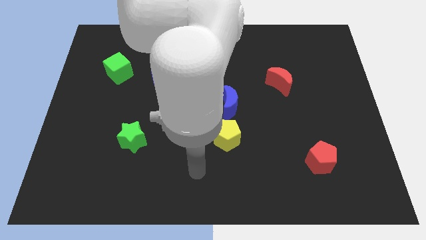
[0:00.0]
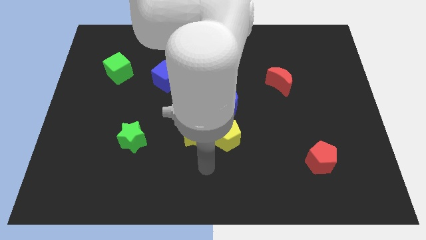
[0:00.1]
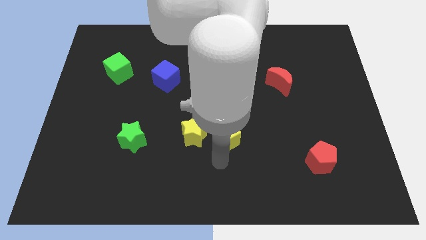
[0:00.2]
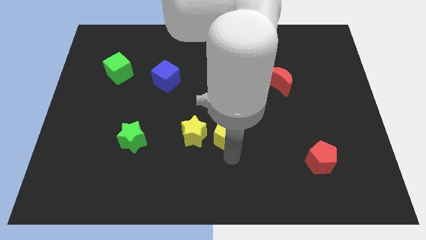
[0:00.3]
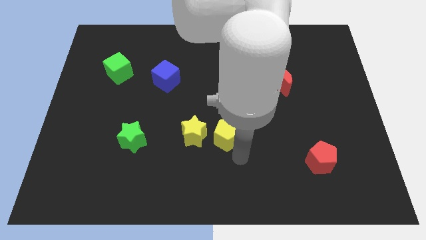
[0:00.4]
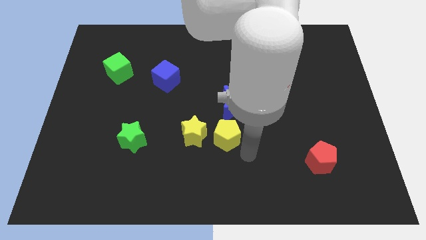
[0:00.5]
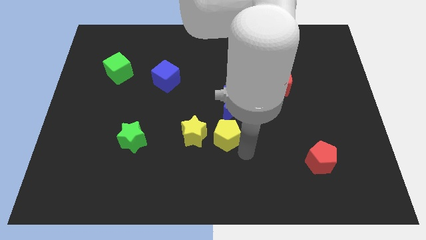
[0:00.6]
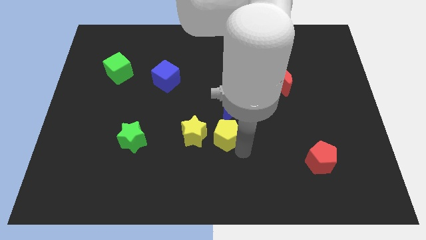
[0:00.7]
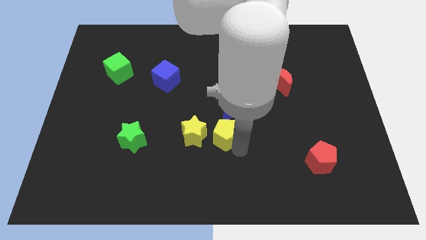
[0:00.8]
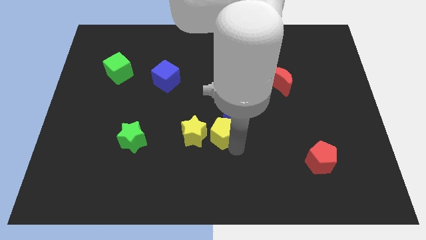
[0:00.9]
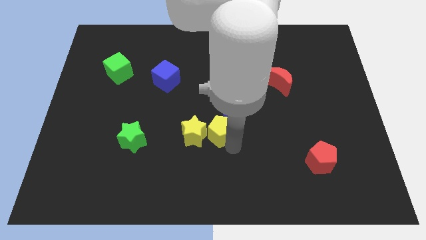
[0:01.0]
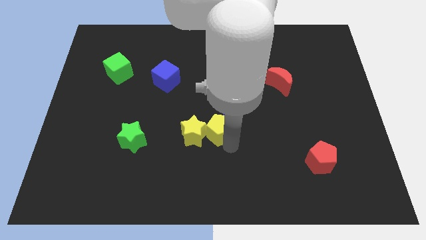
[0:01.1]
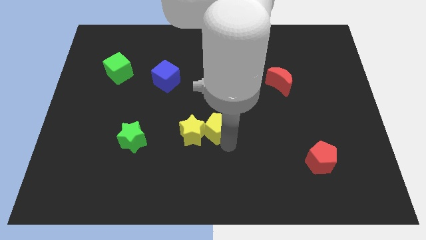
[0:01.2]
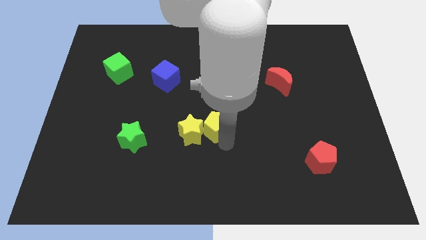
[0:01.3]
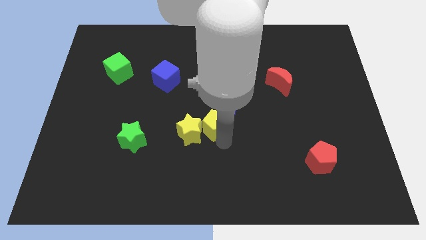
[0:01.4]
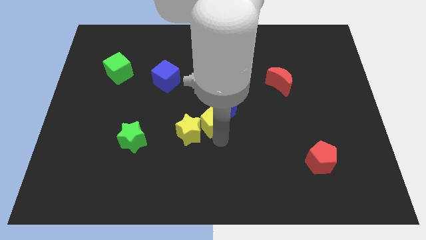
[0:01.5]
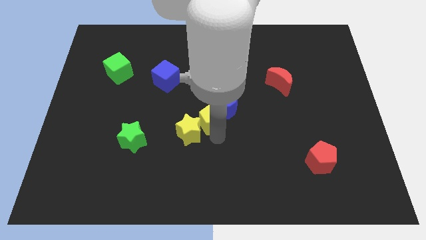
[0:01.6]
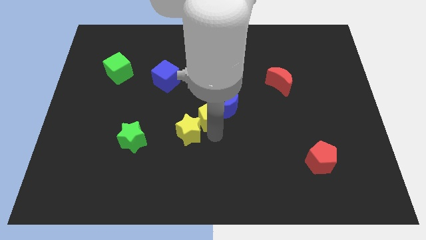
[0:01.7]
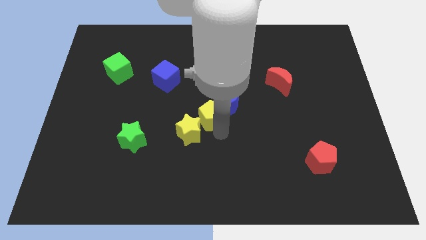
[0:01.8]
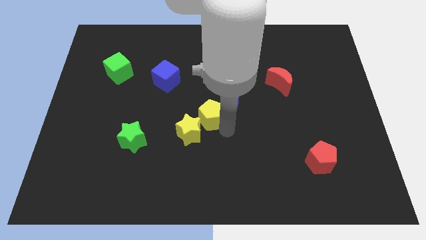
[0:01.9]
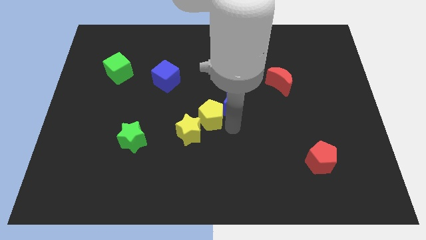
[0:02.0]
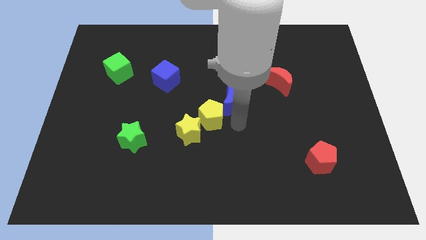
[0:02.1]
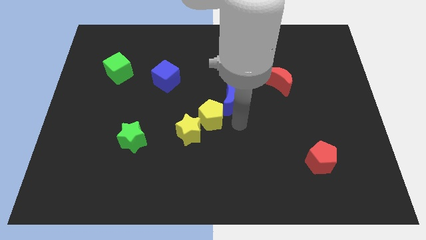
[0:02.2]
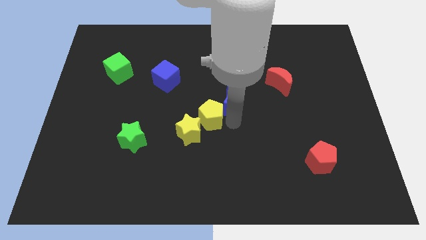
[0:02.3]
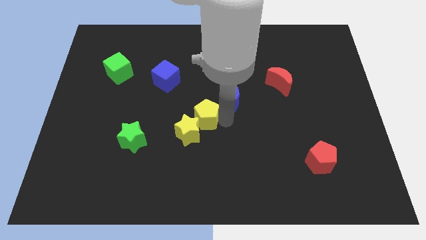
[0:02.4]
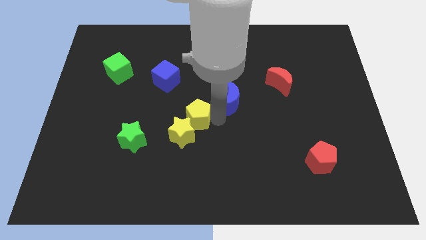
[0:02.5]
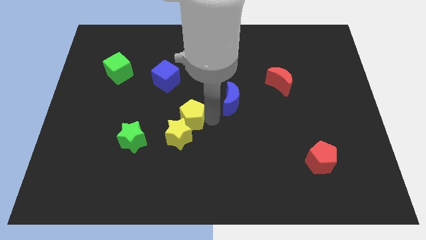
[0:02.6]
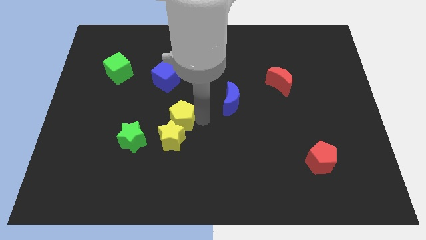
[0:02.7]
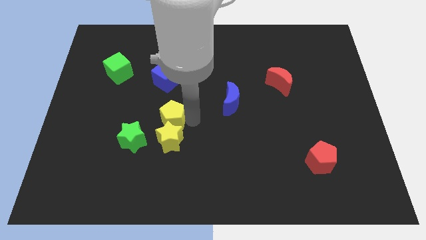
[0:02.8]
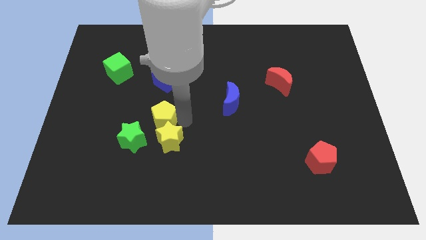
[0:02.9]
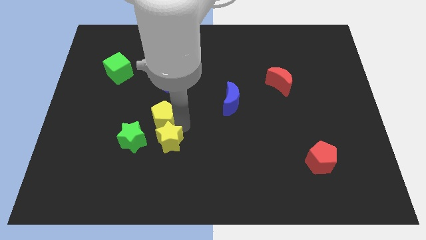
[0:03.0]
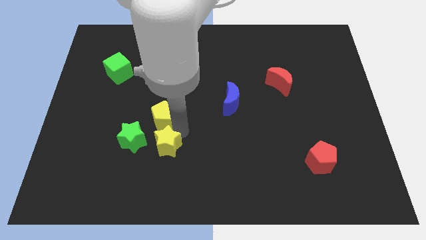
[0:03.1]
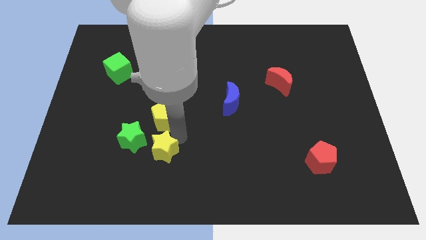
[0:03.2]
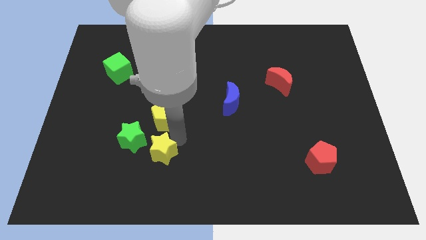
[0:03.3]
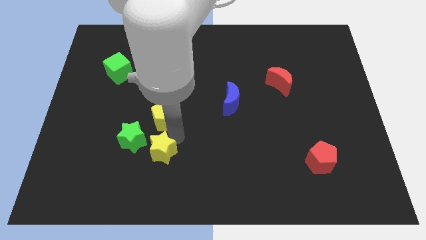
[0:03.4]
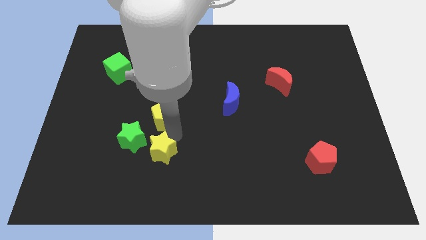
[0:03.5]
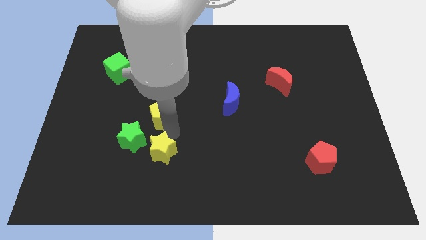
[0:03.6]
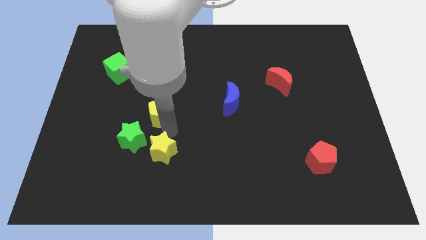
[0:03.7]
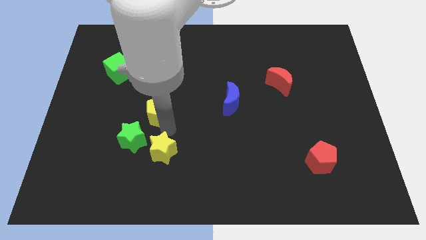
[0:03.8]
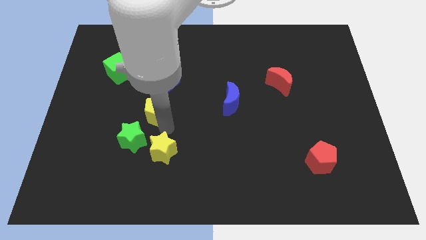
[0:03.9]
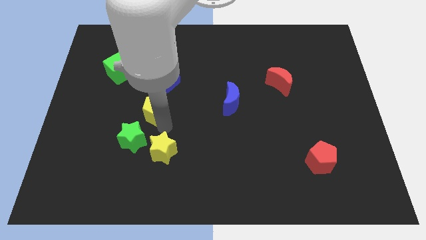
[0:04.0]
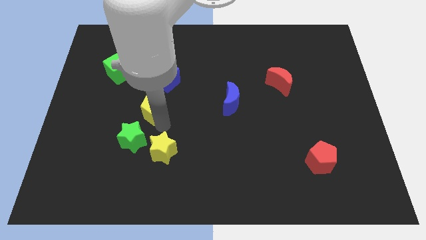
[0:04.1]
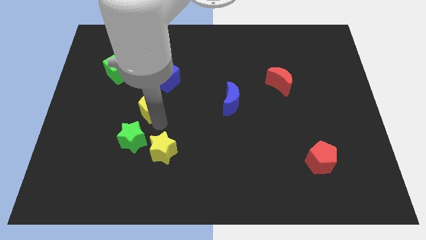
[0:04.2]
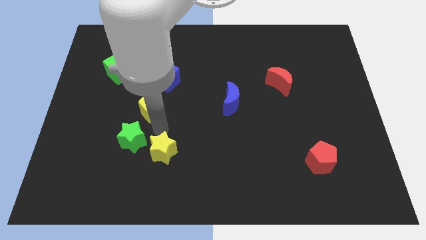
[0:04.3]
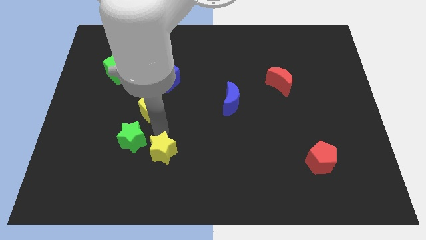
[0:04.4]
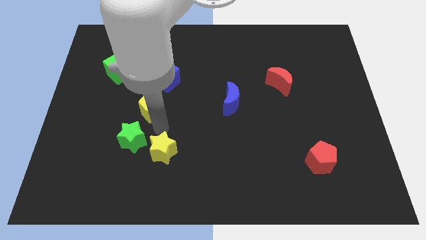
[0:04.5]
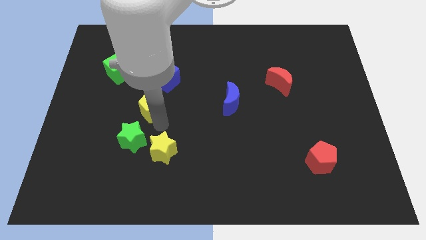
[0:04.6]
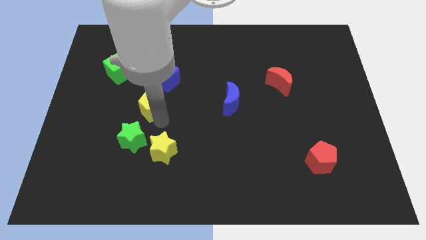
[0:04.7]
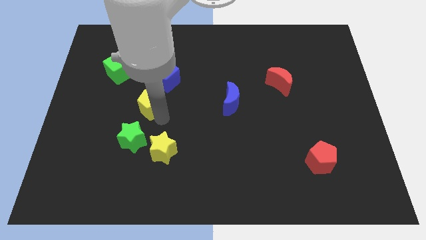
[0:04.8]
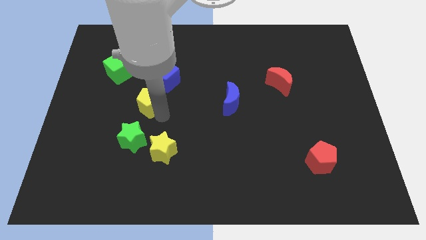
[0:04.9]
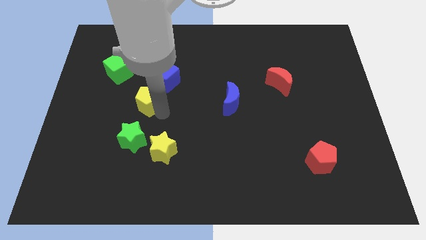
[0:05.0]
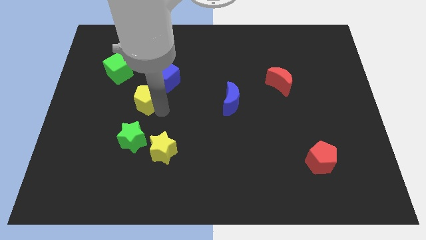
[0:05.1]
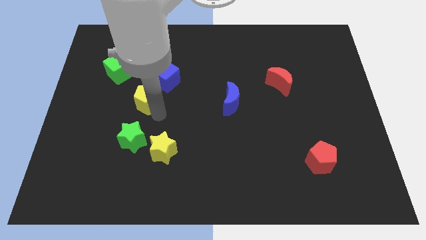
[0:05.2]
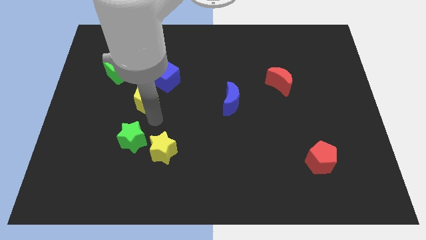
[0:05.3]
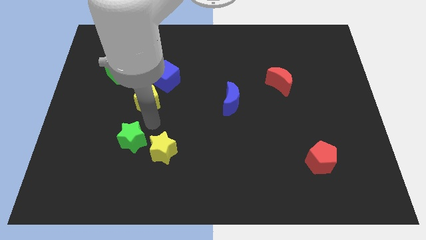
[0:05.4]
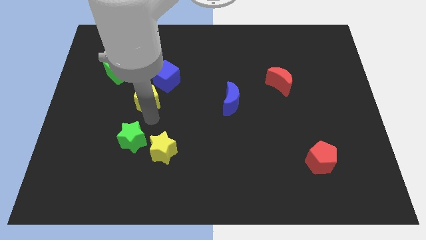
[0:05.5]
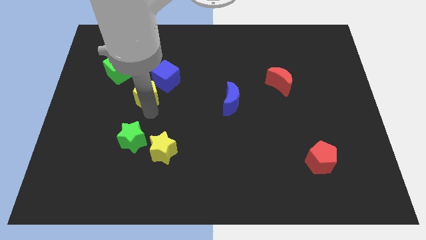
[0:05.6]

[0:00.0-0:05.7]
move the yellow pentagon up and to the left diagonally

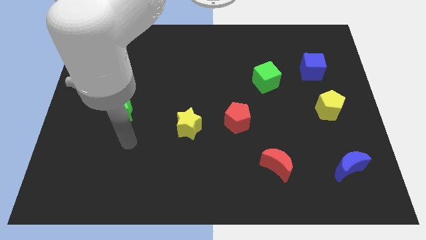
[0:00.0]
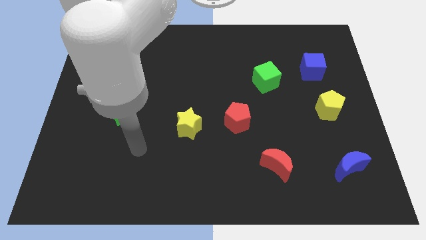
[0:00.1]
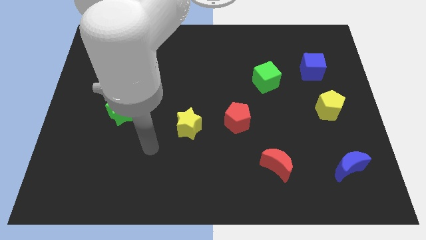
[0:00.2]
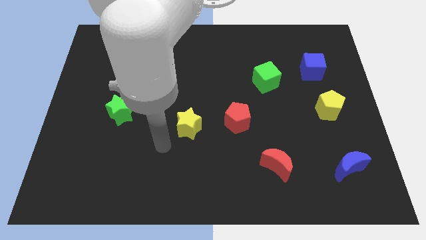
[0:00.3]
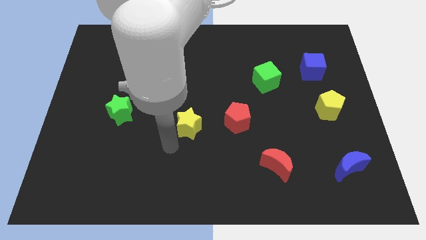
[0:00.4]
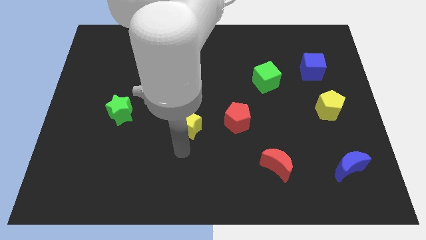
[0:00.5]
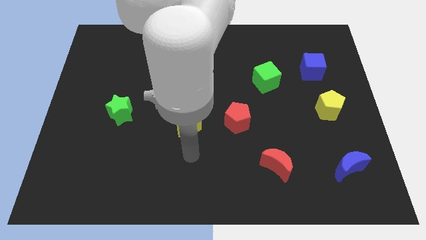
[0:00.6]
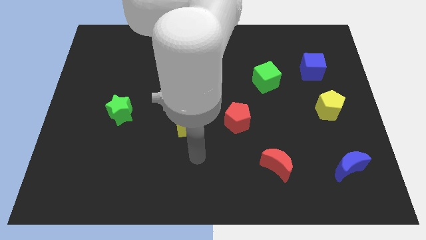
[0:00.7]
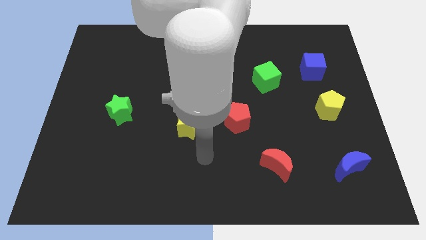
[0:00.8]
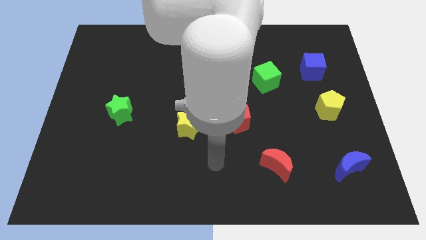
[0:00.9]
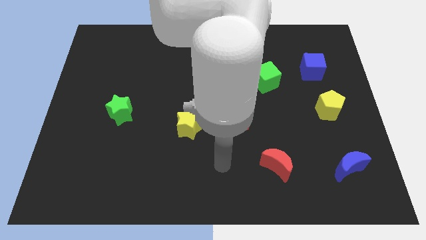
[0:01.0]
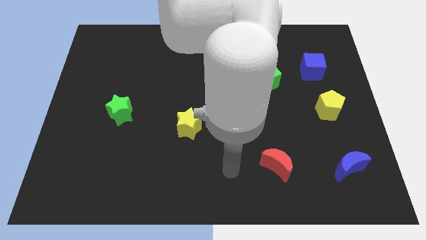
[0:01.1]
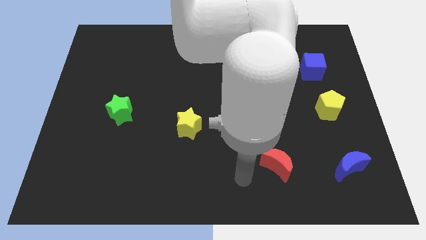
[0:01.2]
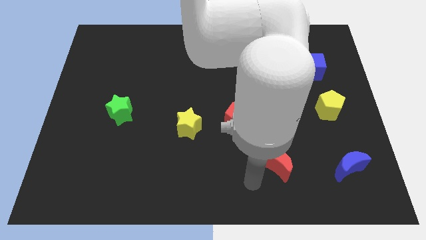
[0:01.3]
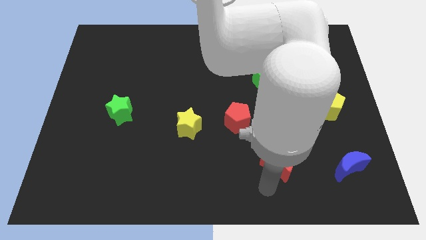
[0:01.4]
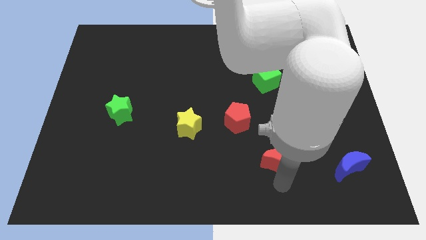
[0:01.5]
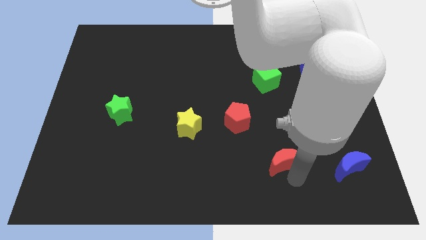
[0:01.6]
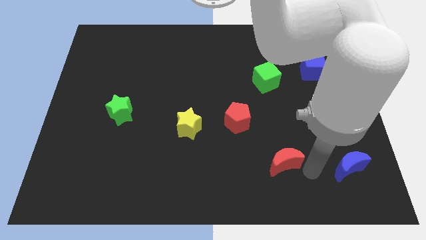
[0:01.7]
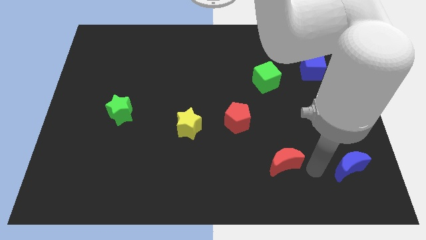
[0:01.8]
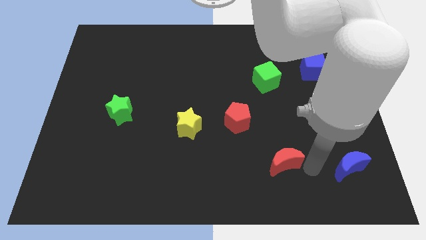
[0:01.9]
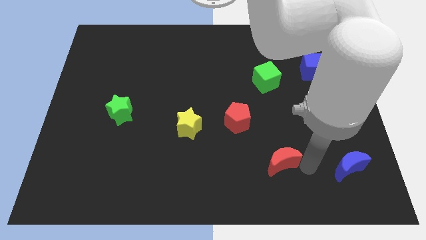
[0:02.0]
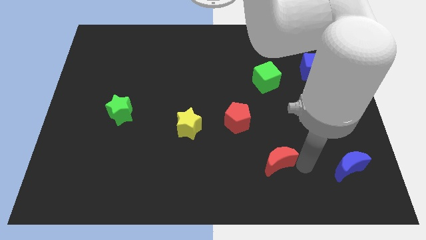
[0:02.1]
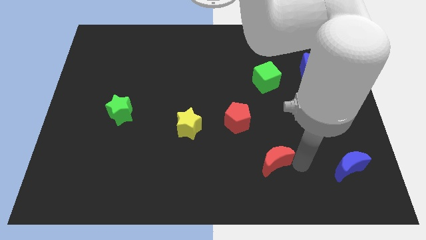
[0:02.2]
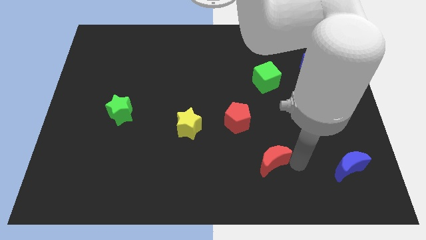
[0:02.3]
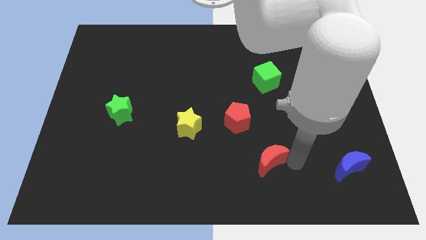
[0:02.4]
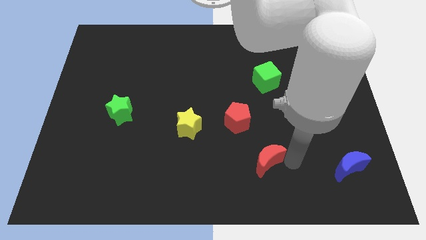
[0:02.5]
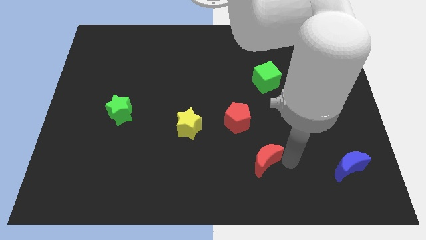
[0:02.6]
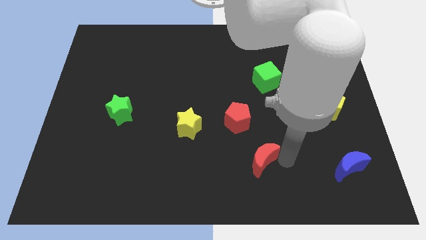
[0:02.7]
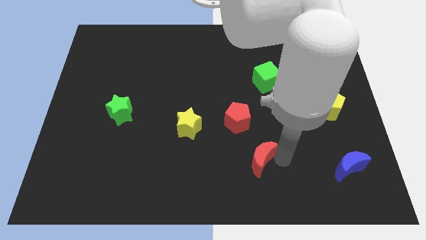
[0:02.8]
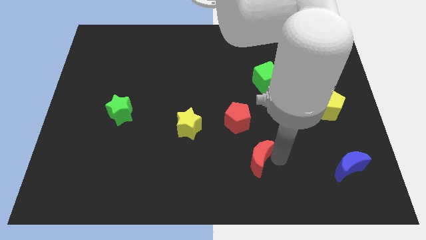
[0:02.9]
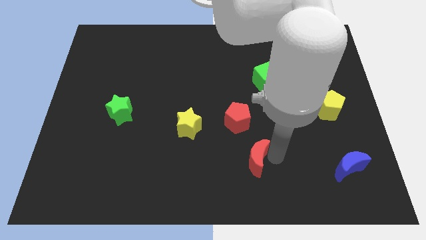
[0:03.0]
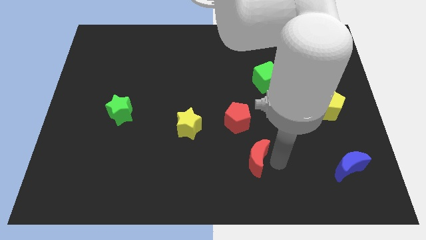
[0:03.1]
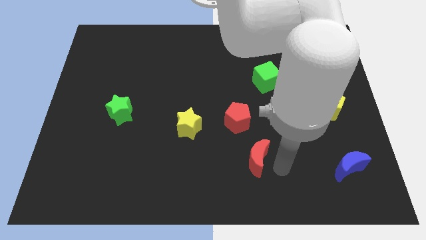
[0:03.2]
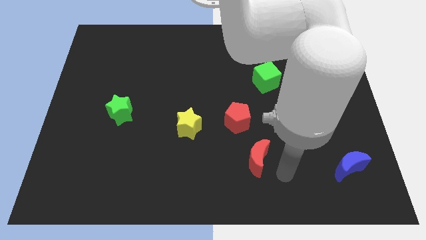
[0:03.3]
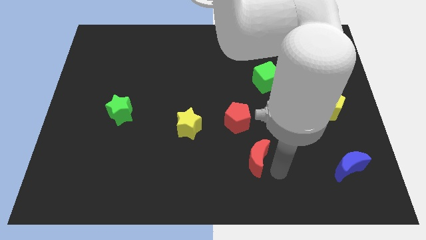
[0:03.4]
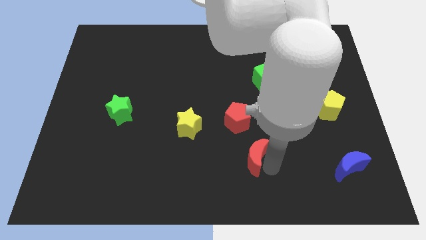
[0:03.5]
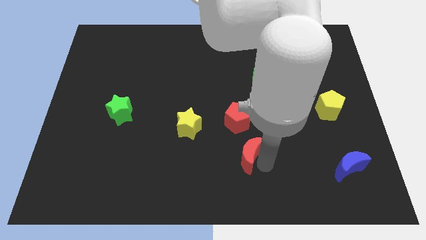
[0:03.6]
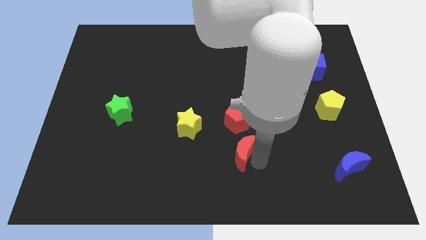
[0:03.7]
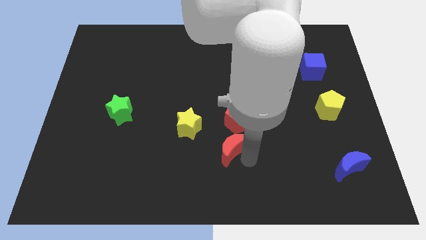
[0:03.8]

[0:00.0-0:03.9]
slightly move the red moon upwards and left diagonally
